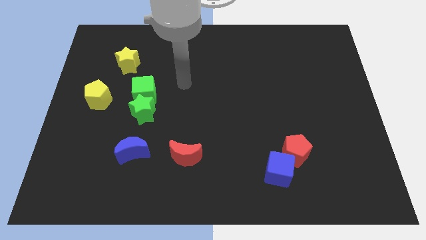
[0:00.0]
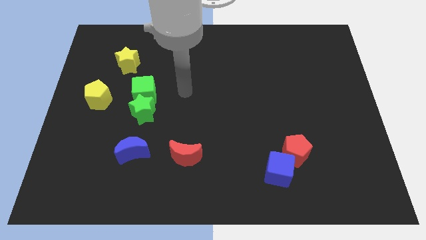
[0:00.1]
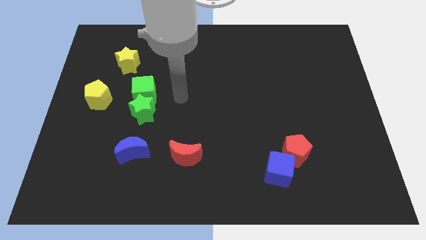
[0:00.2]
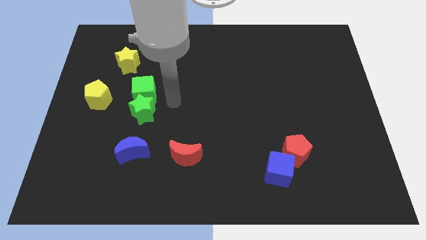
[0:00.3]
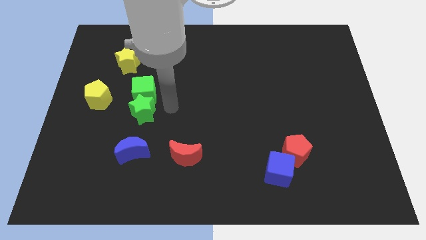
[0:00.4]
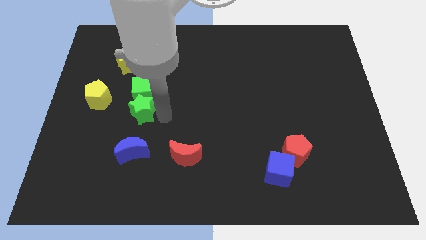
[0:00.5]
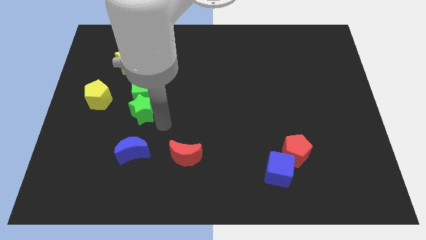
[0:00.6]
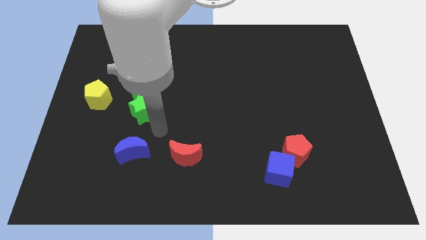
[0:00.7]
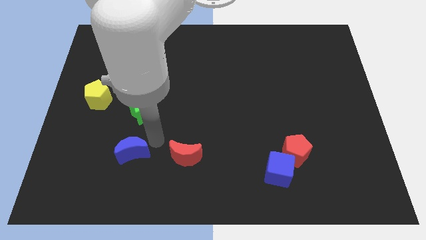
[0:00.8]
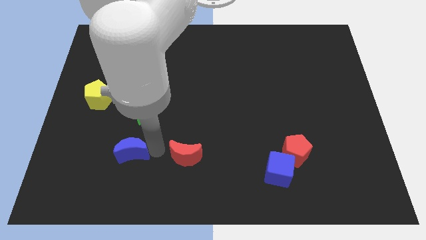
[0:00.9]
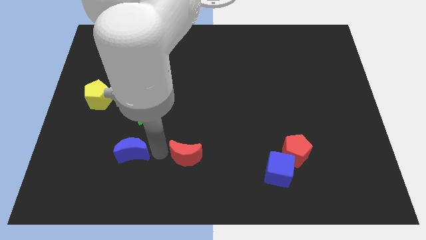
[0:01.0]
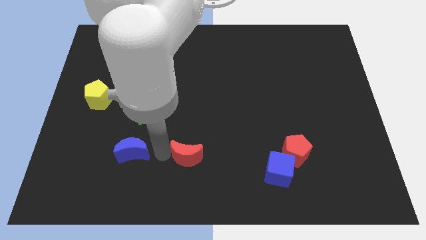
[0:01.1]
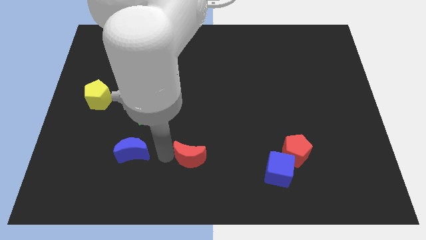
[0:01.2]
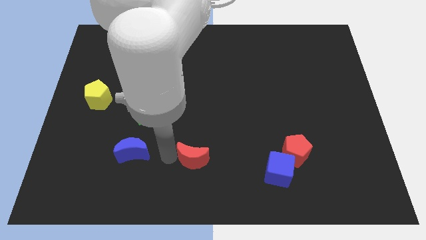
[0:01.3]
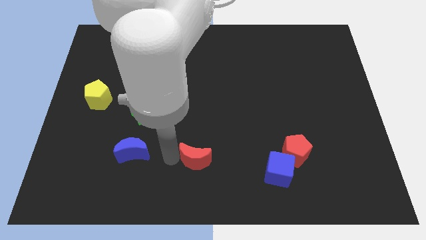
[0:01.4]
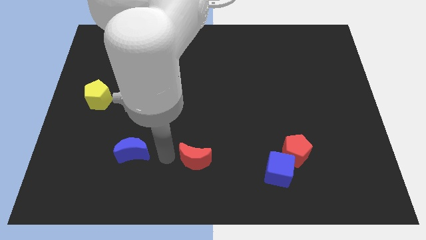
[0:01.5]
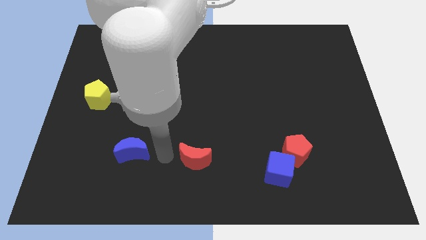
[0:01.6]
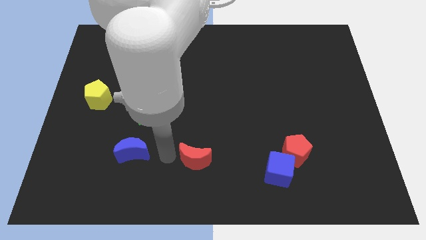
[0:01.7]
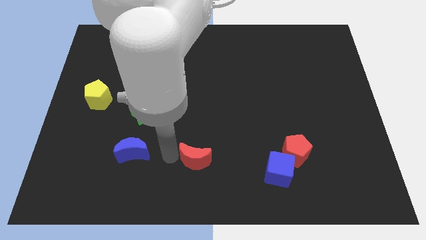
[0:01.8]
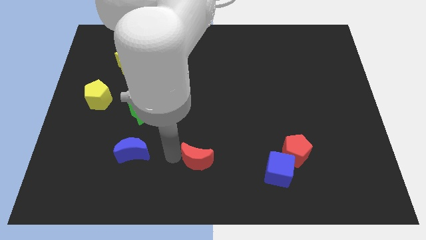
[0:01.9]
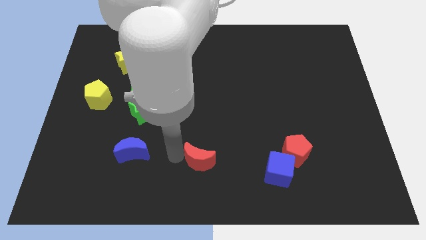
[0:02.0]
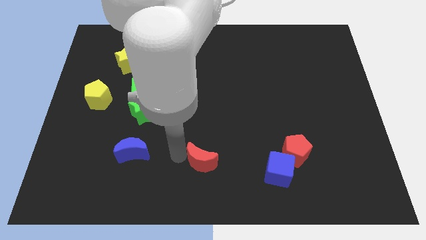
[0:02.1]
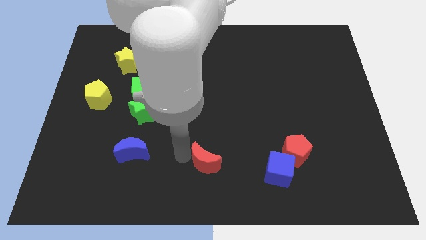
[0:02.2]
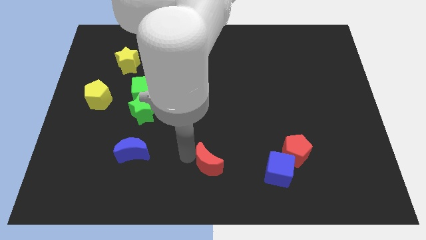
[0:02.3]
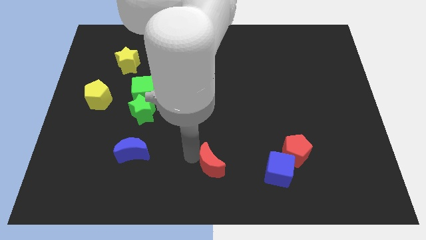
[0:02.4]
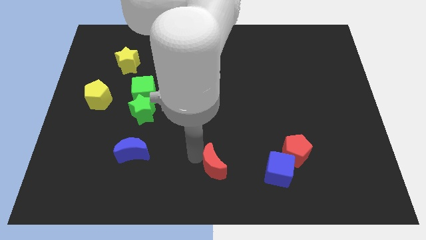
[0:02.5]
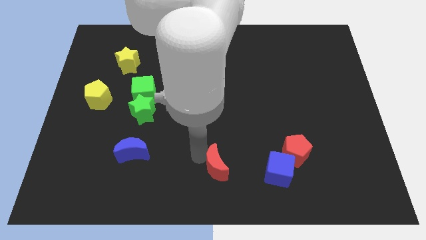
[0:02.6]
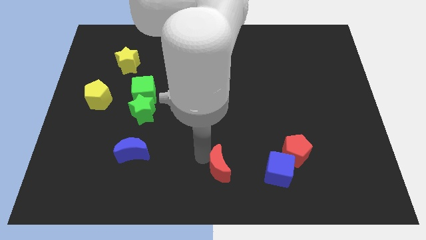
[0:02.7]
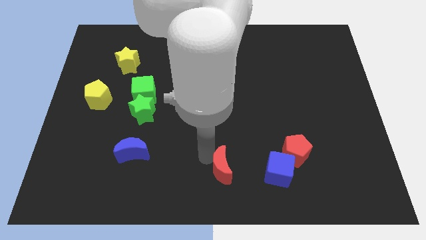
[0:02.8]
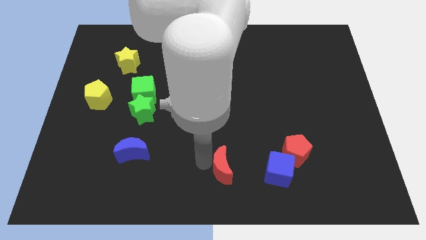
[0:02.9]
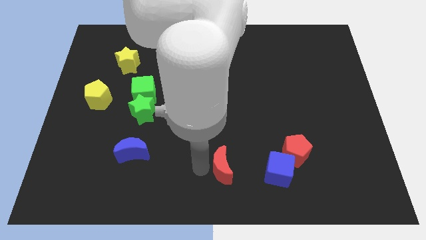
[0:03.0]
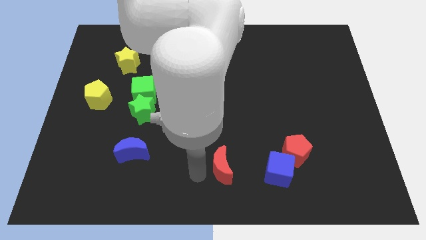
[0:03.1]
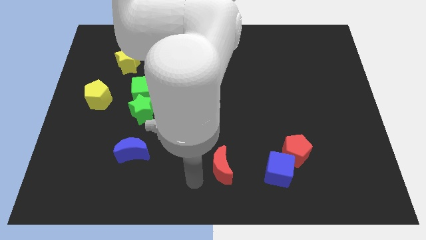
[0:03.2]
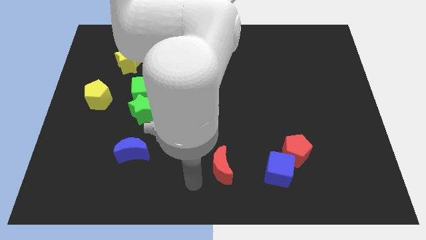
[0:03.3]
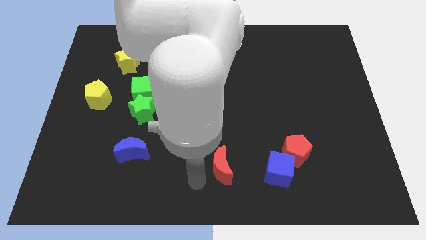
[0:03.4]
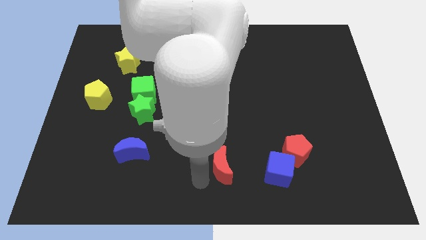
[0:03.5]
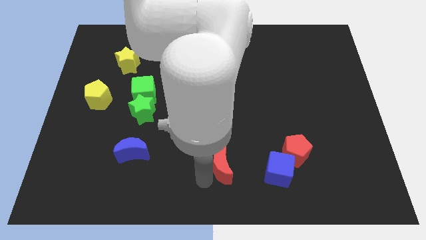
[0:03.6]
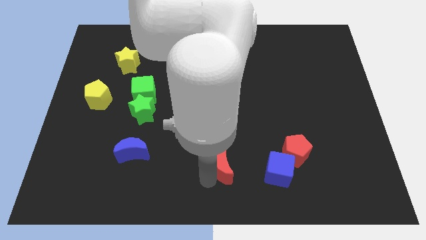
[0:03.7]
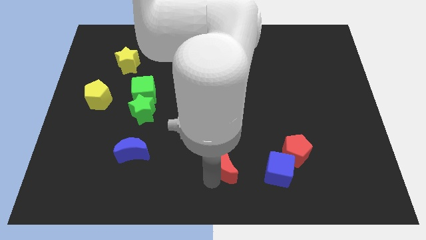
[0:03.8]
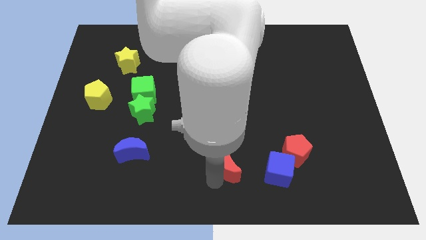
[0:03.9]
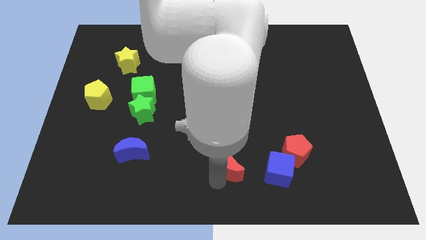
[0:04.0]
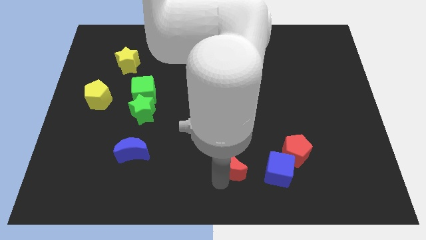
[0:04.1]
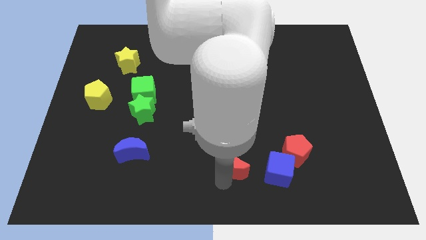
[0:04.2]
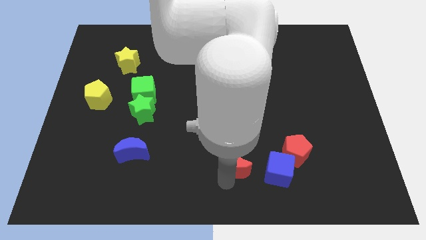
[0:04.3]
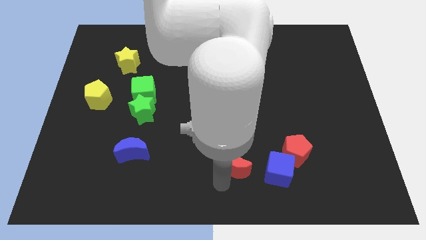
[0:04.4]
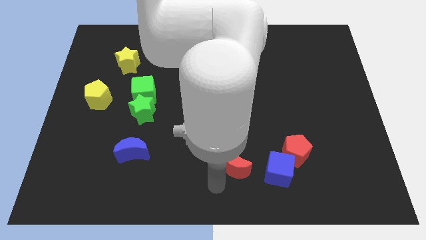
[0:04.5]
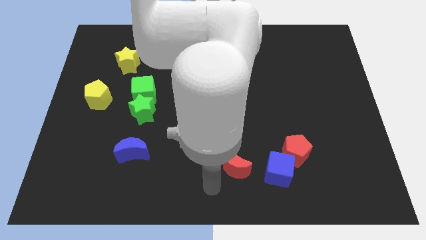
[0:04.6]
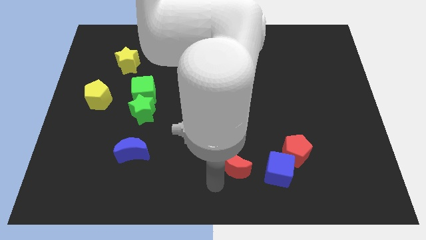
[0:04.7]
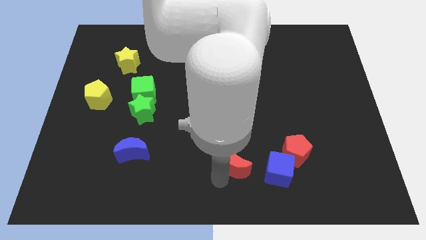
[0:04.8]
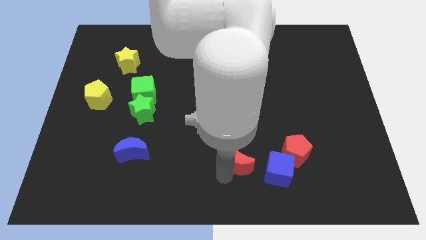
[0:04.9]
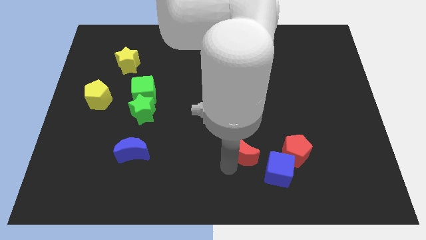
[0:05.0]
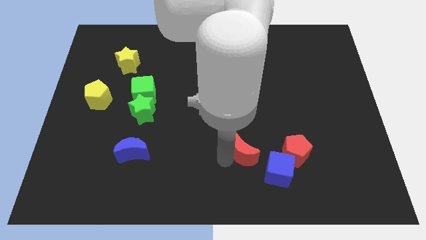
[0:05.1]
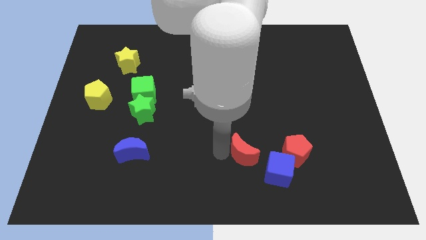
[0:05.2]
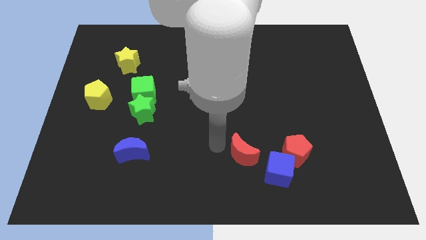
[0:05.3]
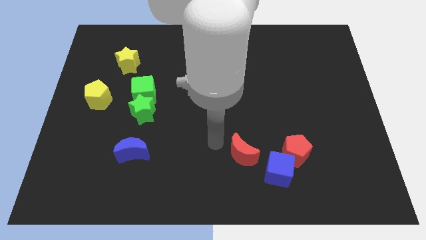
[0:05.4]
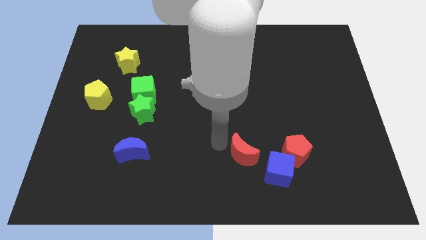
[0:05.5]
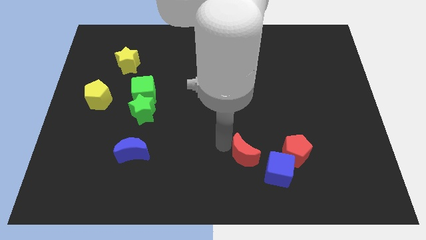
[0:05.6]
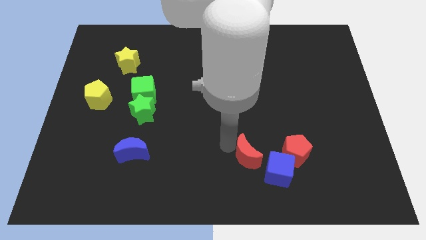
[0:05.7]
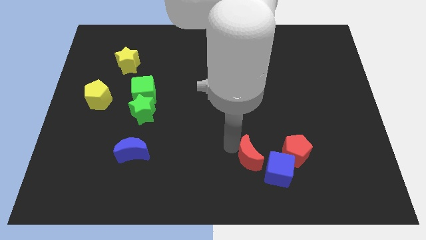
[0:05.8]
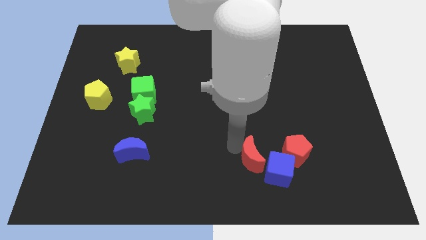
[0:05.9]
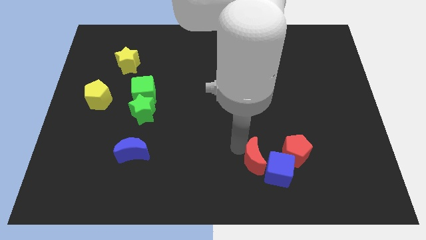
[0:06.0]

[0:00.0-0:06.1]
move the red moon towards the blue cube

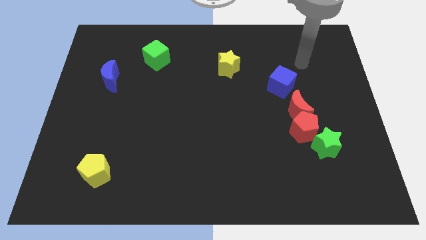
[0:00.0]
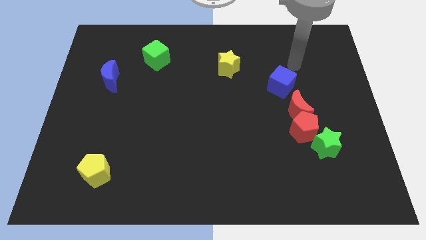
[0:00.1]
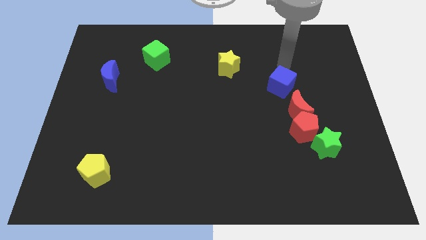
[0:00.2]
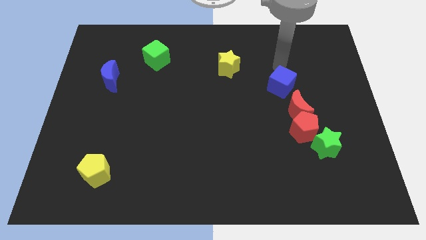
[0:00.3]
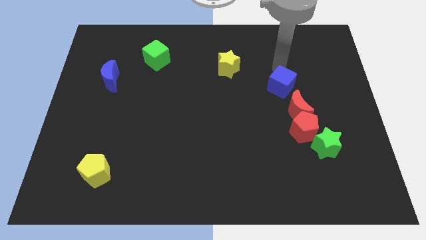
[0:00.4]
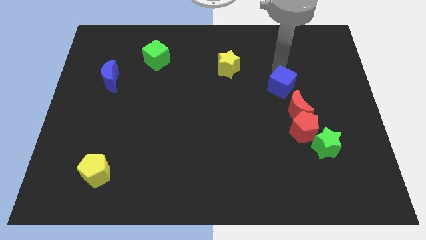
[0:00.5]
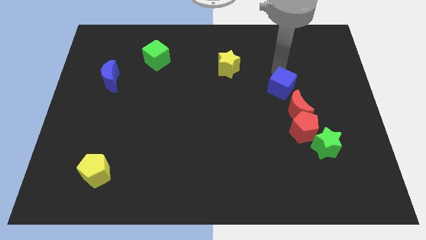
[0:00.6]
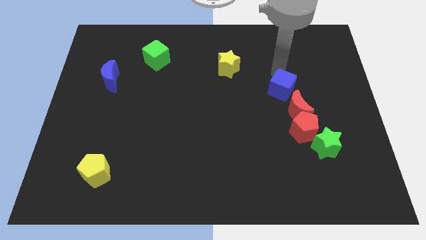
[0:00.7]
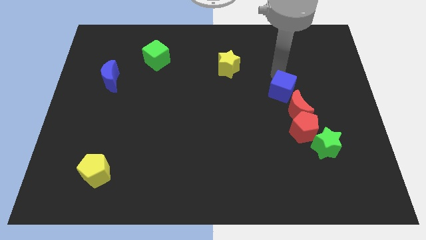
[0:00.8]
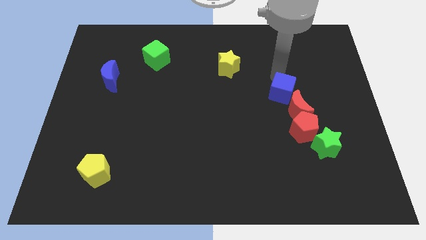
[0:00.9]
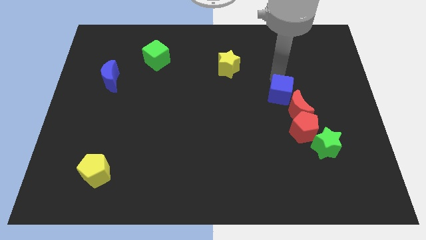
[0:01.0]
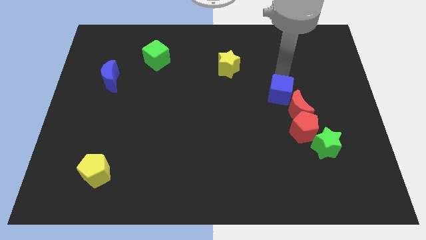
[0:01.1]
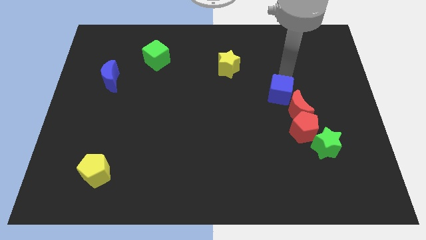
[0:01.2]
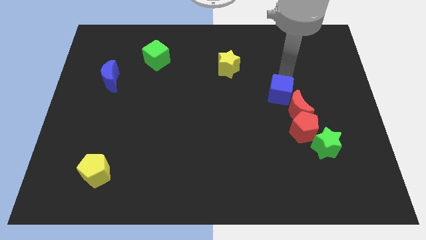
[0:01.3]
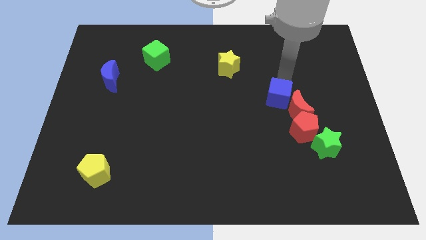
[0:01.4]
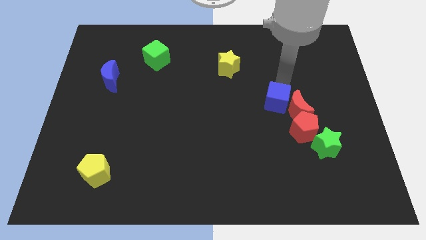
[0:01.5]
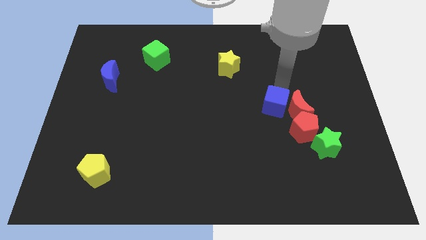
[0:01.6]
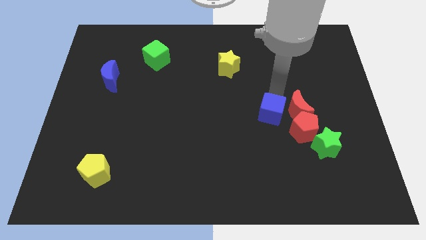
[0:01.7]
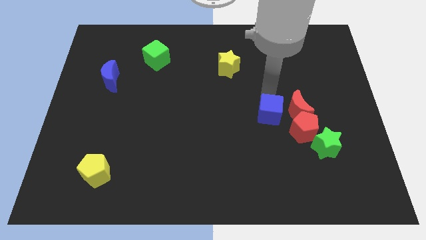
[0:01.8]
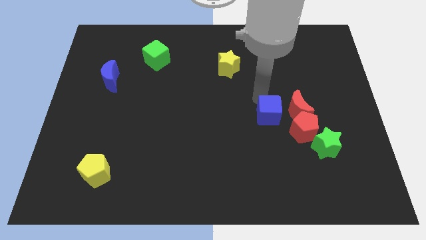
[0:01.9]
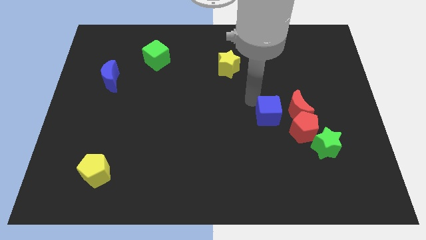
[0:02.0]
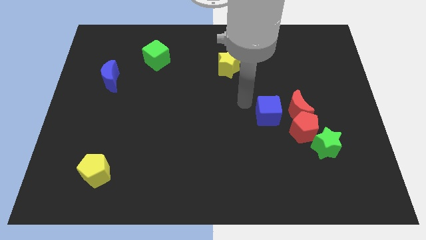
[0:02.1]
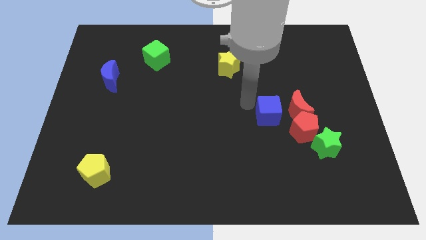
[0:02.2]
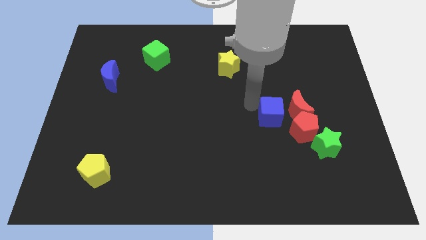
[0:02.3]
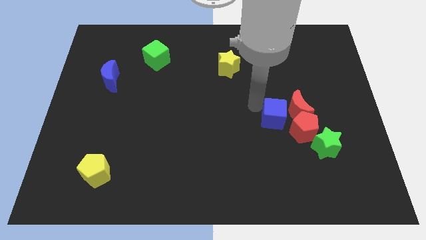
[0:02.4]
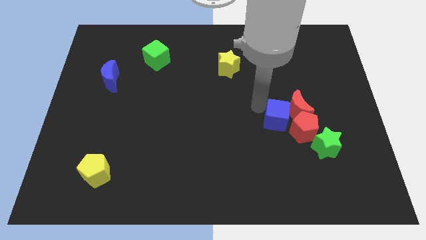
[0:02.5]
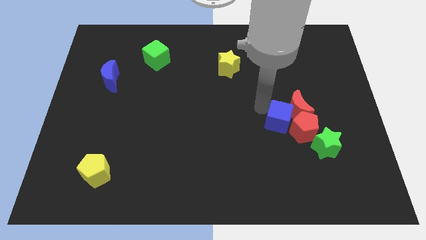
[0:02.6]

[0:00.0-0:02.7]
push the blue cube to the red pentagon
